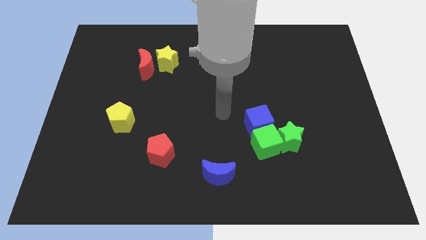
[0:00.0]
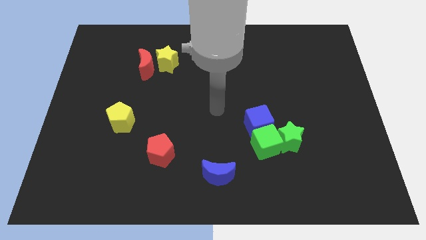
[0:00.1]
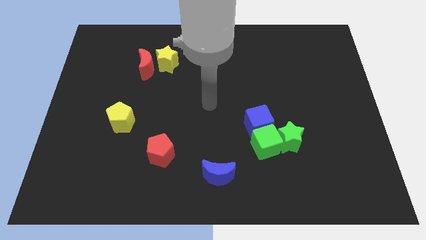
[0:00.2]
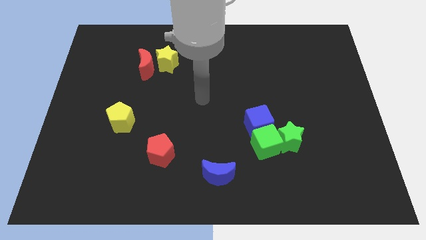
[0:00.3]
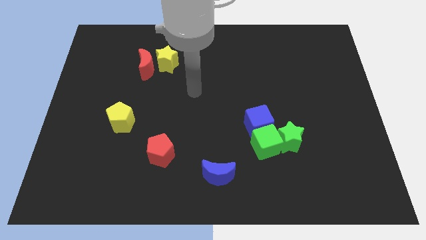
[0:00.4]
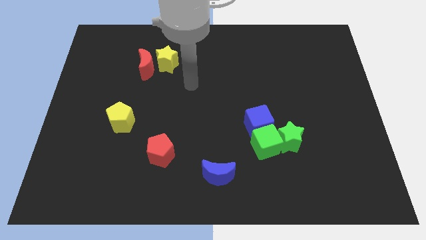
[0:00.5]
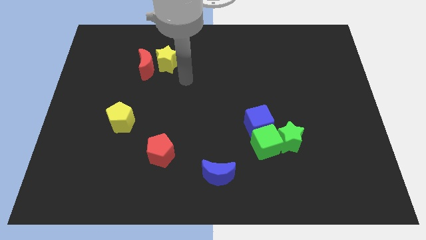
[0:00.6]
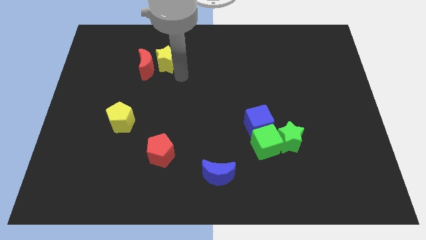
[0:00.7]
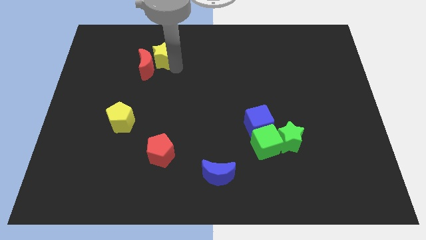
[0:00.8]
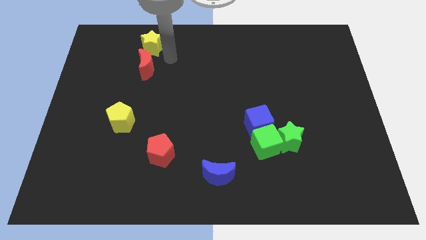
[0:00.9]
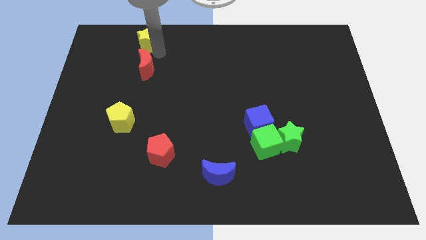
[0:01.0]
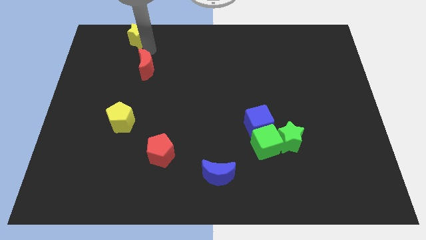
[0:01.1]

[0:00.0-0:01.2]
move the red moon away from the yellow star

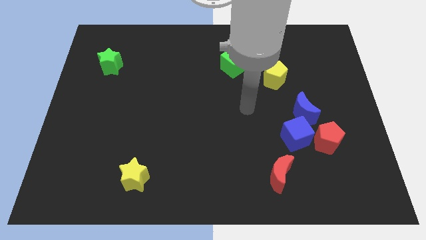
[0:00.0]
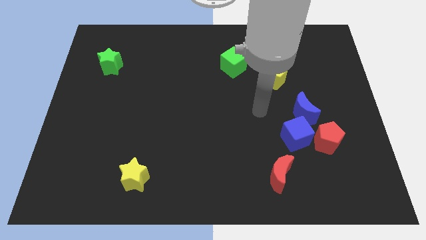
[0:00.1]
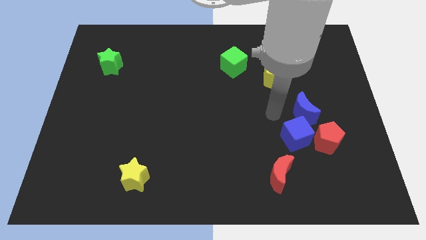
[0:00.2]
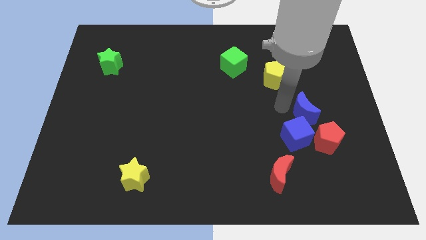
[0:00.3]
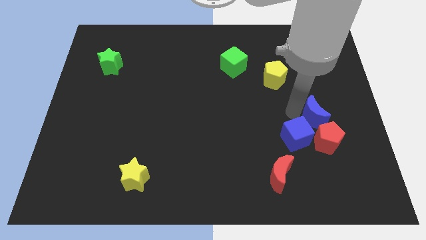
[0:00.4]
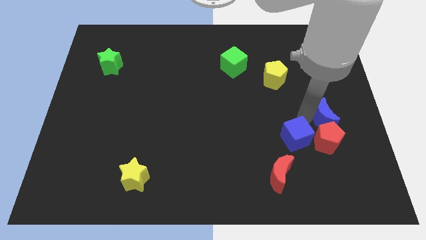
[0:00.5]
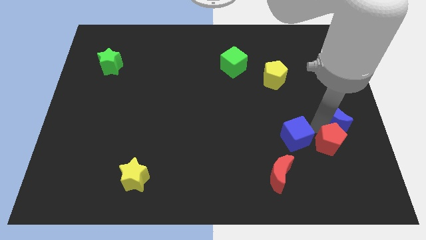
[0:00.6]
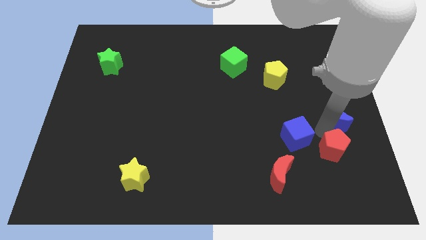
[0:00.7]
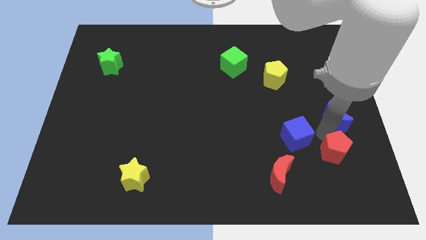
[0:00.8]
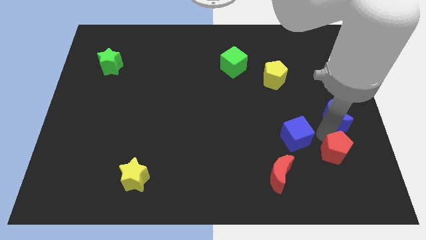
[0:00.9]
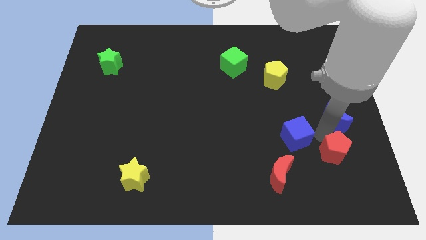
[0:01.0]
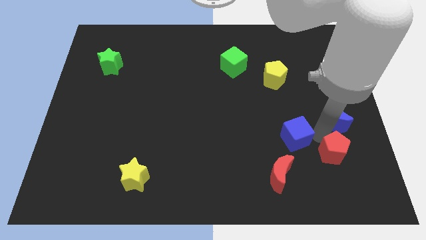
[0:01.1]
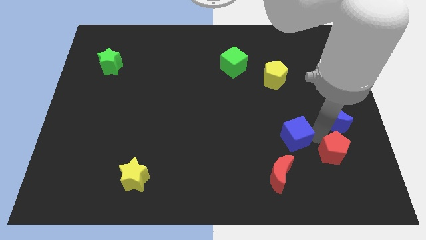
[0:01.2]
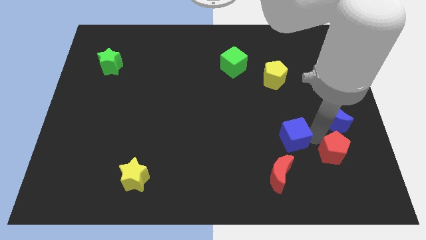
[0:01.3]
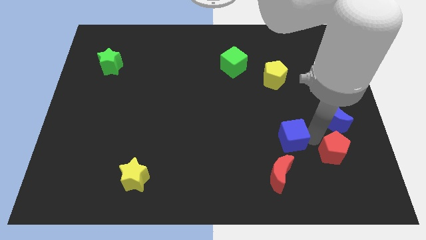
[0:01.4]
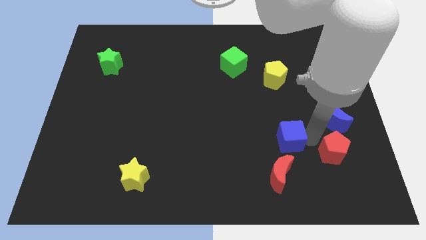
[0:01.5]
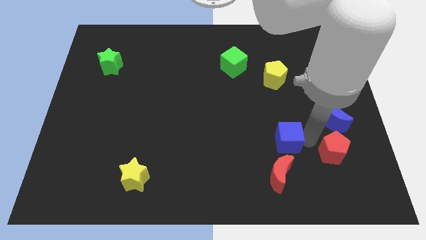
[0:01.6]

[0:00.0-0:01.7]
pull the blue cube apart from the red pentagon and blue moon

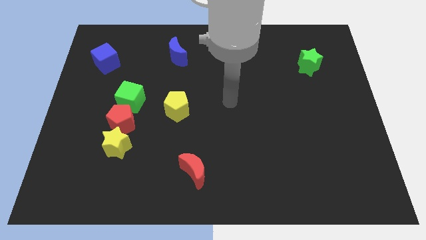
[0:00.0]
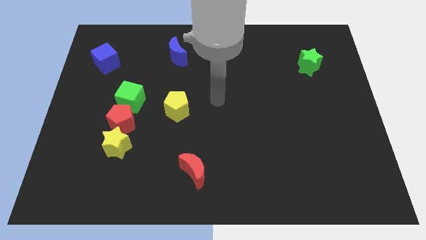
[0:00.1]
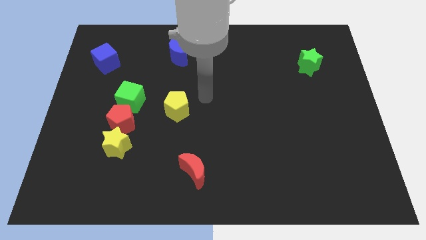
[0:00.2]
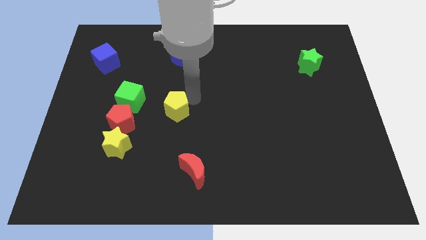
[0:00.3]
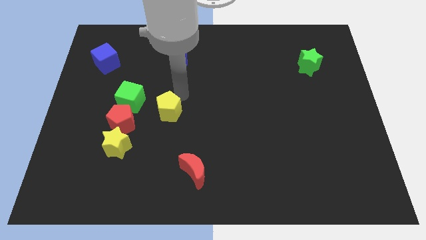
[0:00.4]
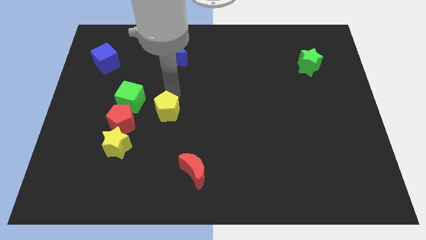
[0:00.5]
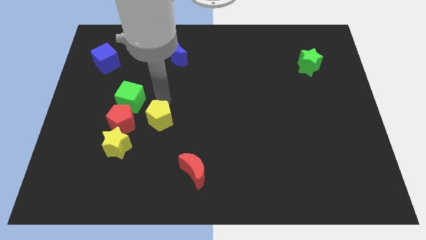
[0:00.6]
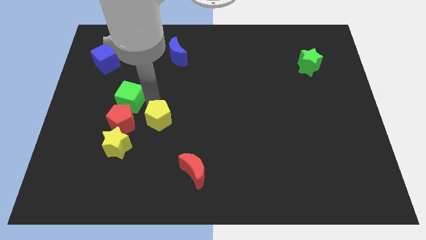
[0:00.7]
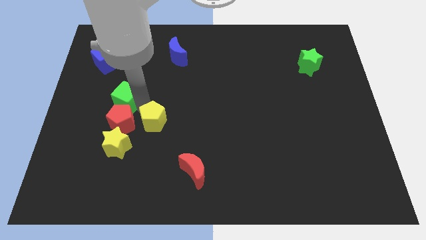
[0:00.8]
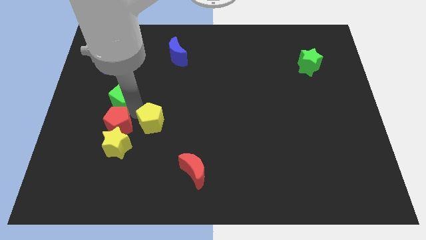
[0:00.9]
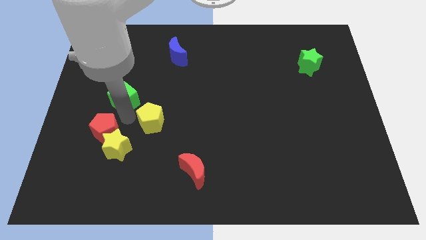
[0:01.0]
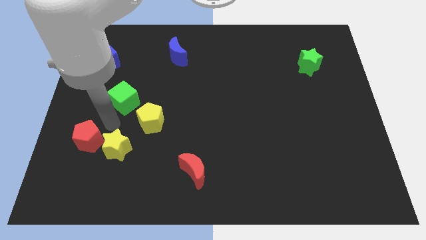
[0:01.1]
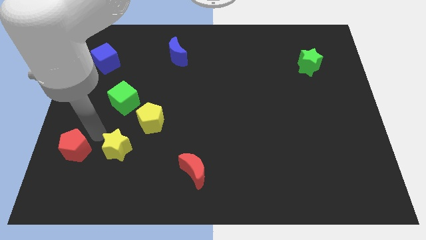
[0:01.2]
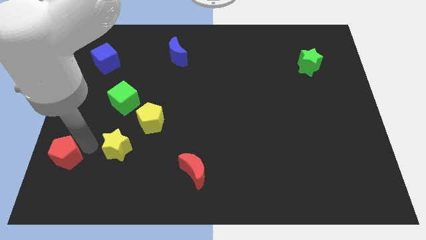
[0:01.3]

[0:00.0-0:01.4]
separate the yellow star from the red pentagon

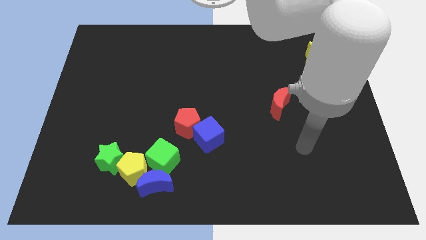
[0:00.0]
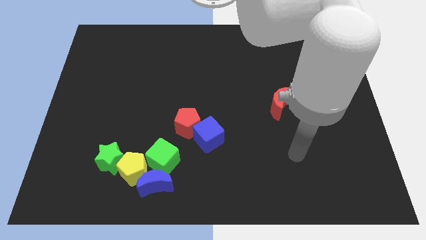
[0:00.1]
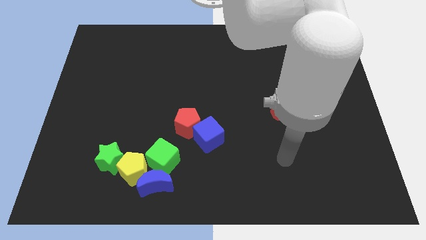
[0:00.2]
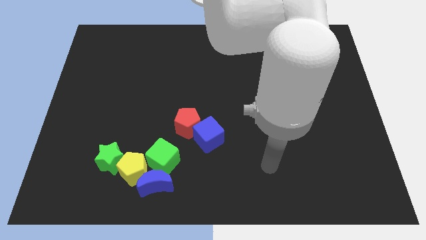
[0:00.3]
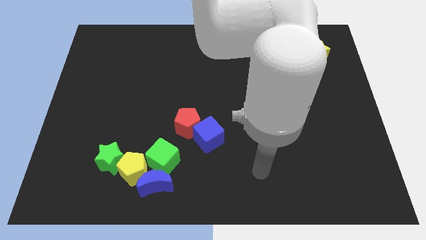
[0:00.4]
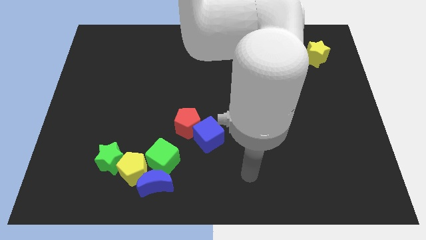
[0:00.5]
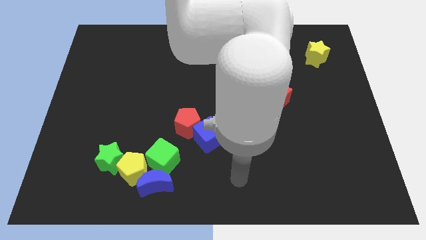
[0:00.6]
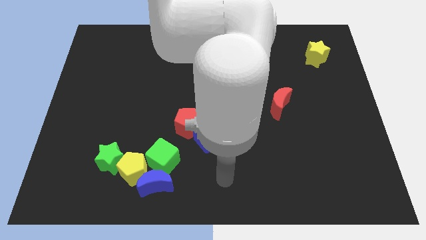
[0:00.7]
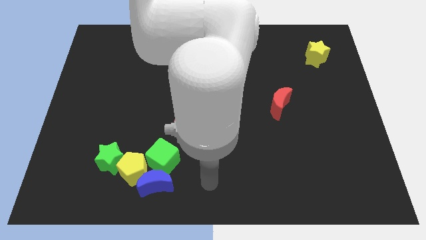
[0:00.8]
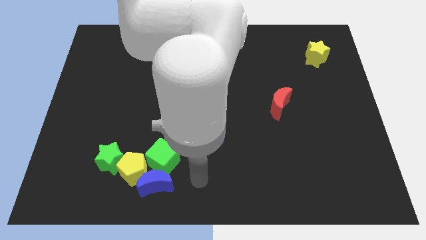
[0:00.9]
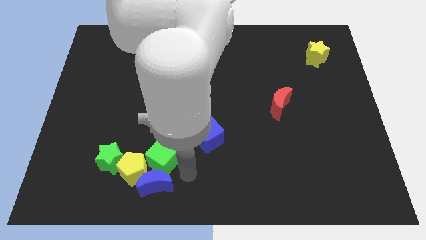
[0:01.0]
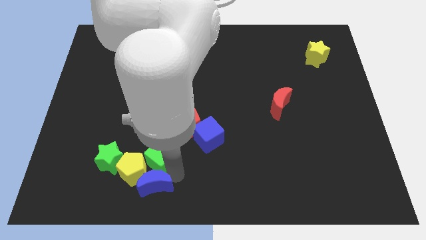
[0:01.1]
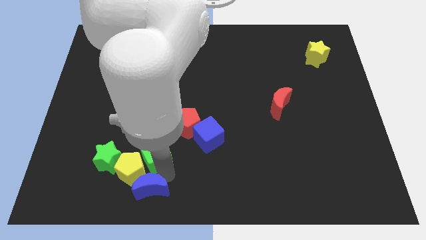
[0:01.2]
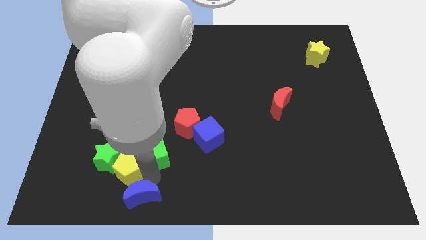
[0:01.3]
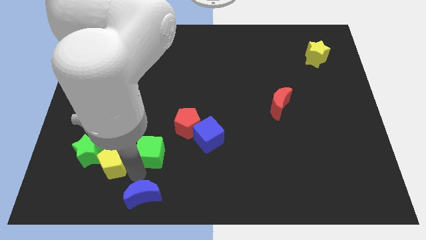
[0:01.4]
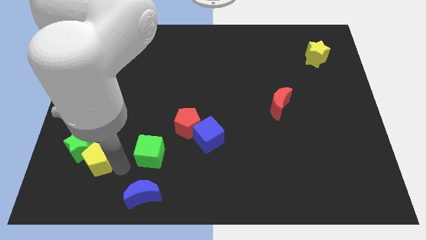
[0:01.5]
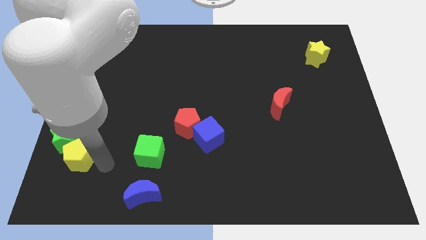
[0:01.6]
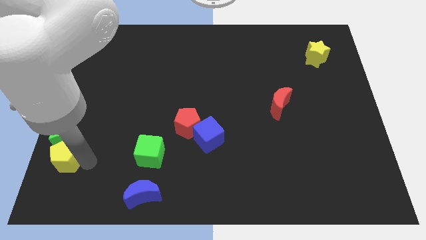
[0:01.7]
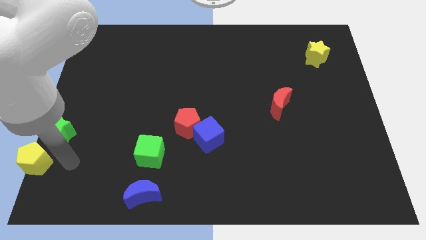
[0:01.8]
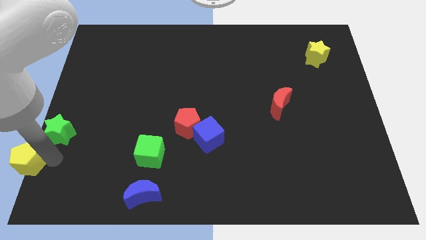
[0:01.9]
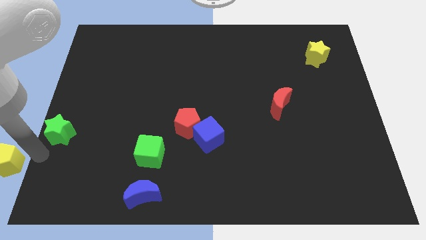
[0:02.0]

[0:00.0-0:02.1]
pull the green star apart from the yellow pentagon

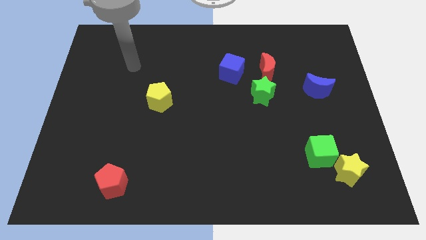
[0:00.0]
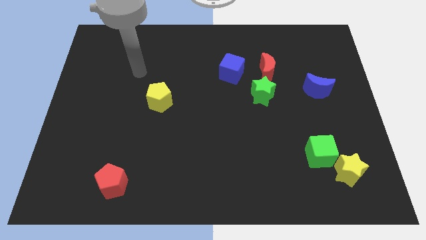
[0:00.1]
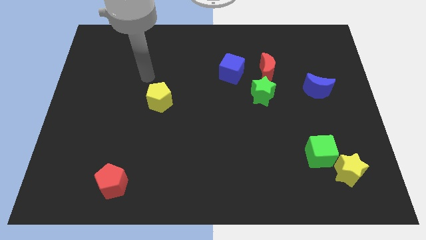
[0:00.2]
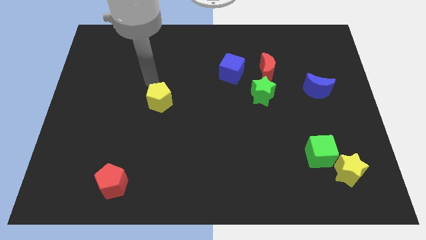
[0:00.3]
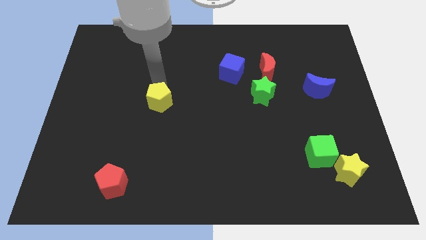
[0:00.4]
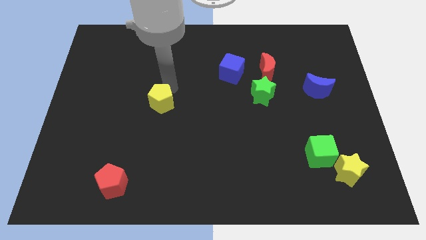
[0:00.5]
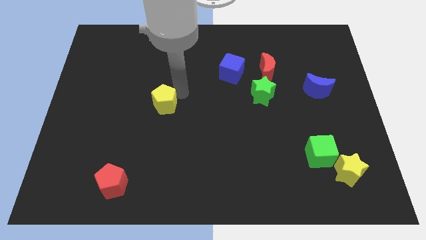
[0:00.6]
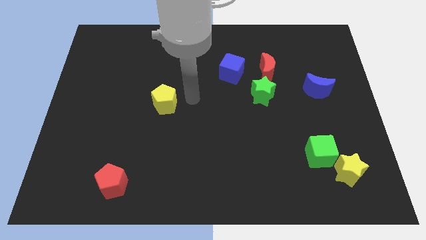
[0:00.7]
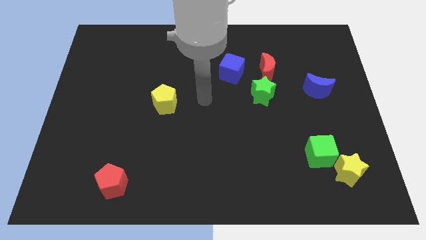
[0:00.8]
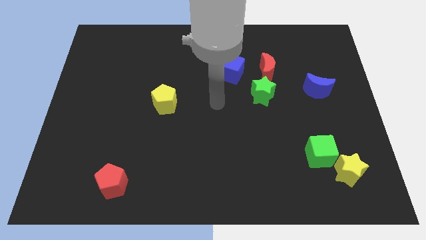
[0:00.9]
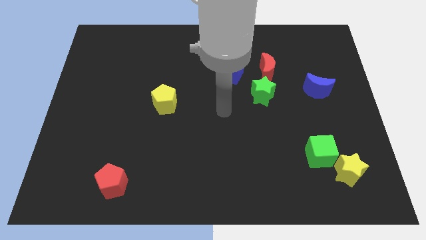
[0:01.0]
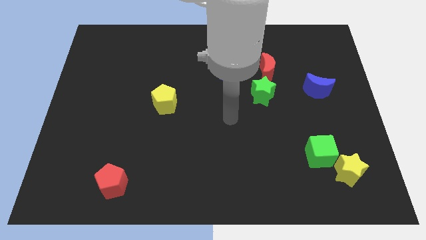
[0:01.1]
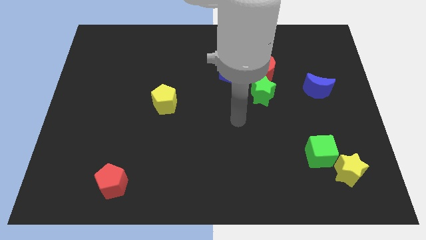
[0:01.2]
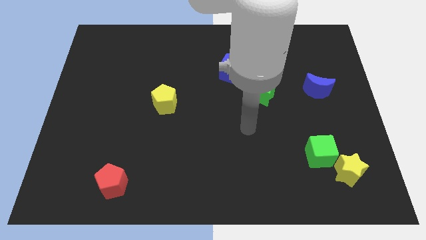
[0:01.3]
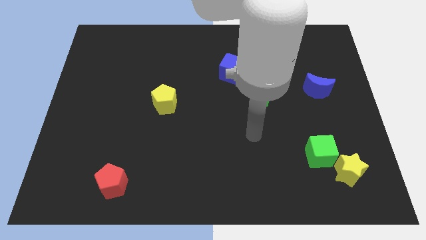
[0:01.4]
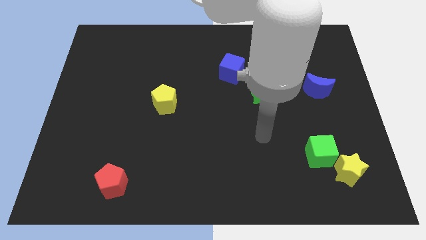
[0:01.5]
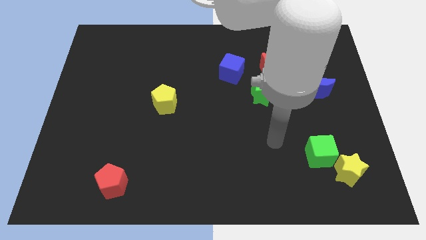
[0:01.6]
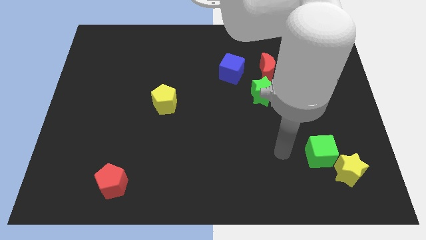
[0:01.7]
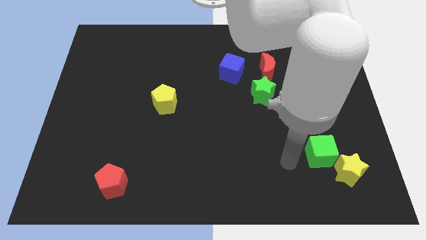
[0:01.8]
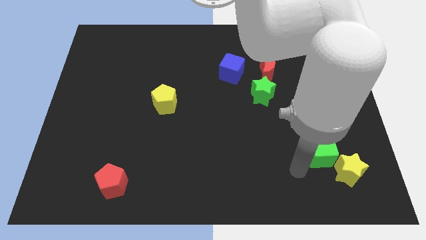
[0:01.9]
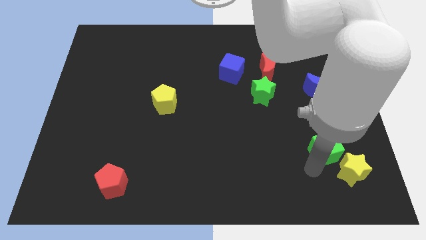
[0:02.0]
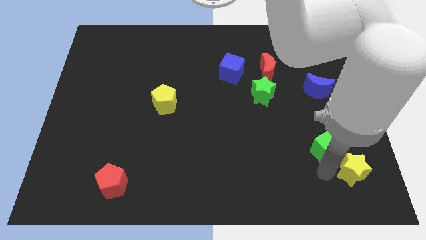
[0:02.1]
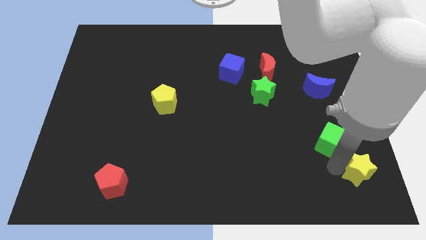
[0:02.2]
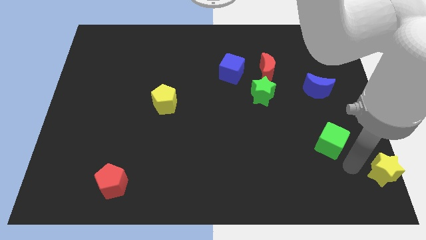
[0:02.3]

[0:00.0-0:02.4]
separate the green cube from the yellow star

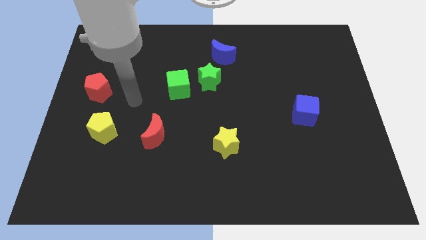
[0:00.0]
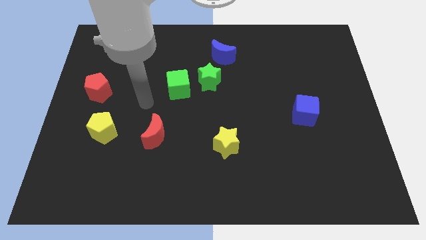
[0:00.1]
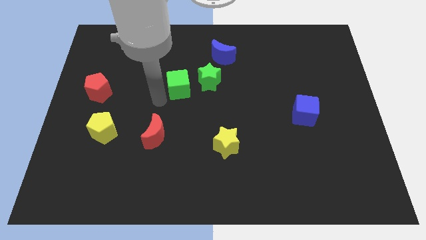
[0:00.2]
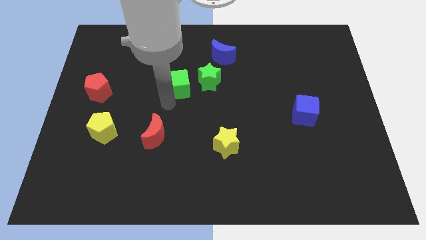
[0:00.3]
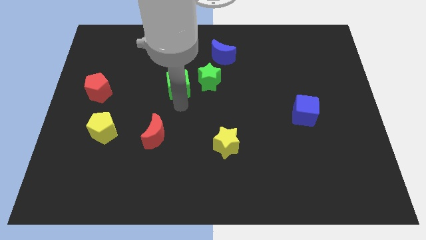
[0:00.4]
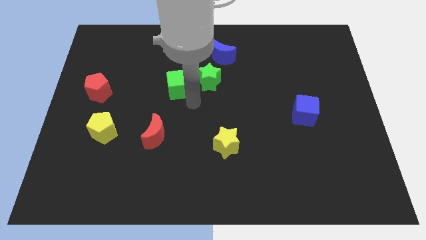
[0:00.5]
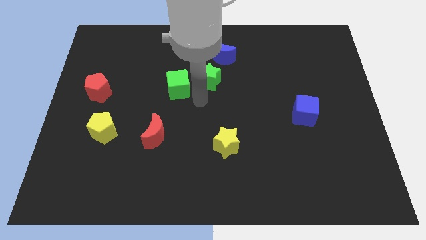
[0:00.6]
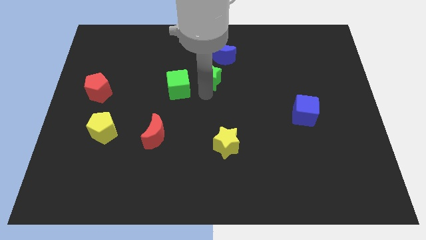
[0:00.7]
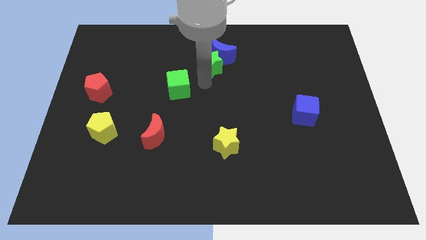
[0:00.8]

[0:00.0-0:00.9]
move the green cube away from the green star
